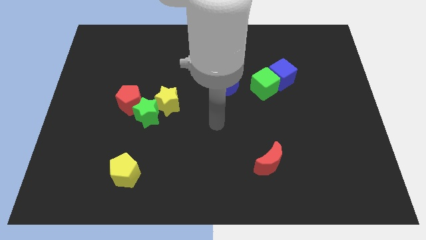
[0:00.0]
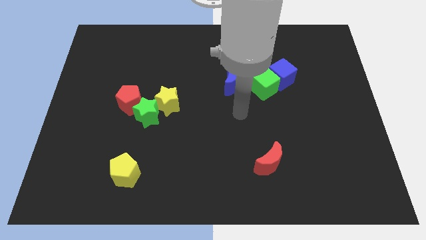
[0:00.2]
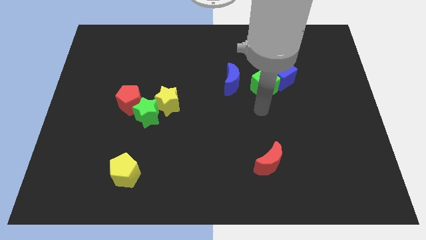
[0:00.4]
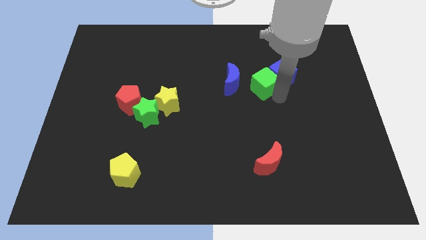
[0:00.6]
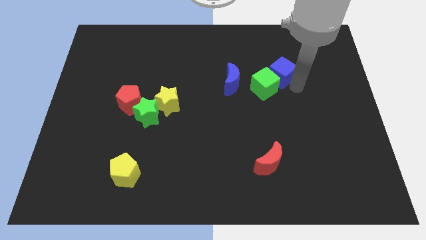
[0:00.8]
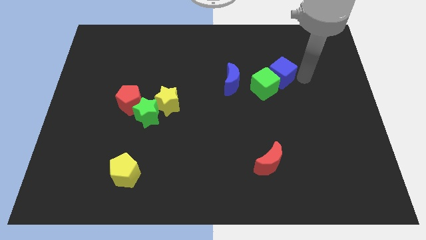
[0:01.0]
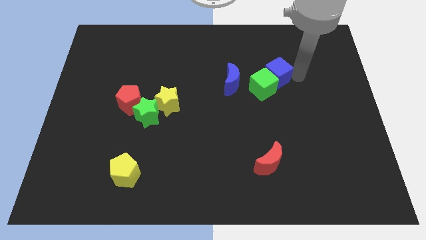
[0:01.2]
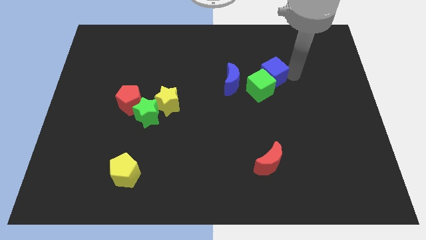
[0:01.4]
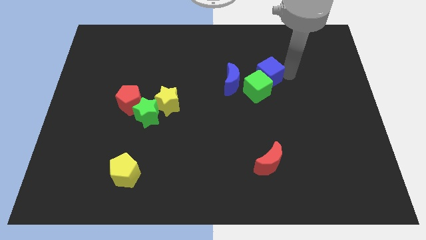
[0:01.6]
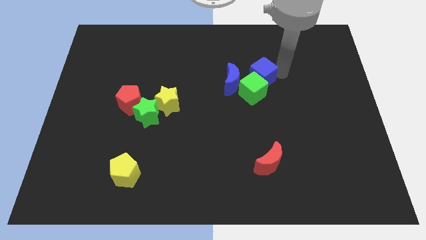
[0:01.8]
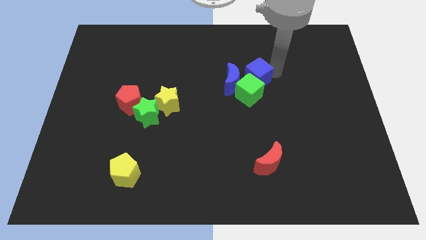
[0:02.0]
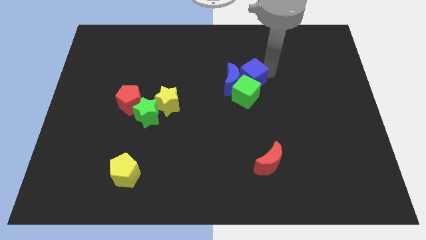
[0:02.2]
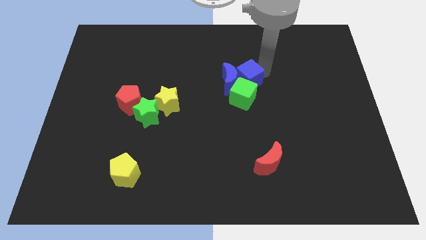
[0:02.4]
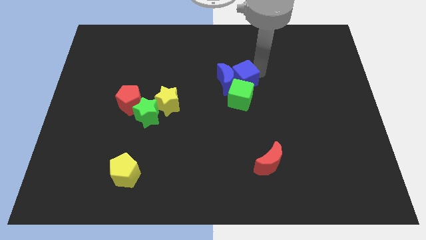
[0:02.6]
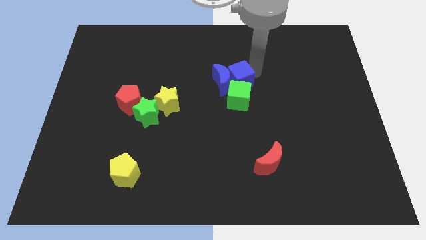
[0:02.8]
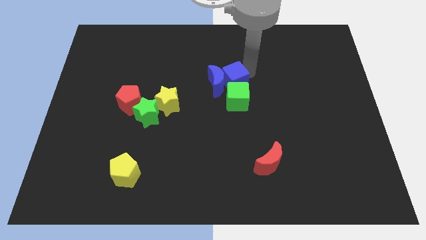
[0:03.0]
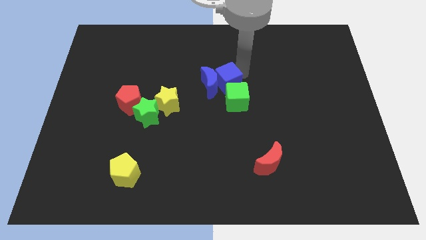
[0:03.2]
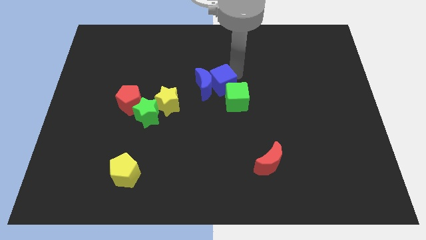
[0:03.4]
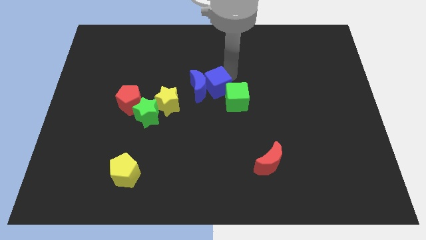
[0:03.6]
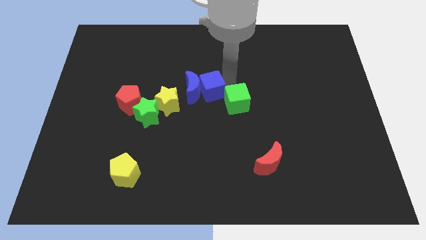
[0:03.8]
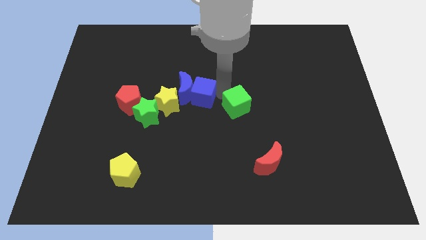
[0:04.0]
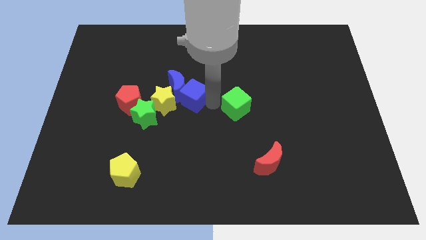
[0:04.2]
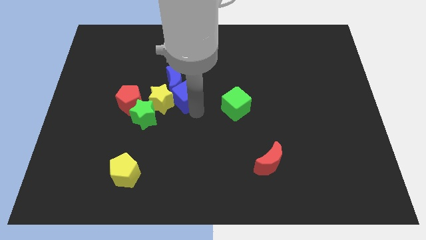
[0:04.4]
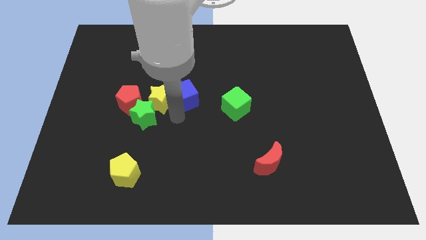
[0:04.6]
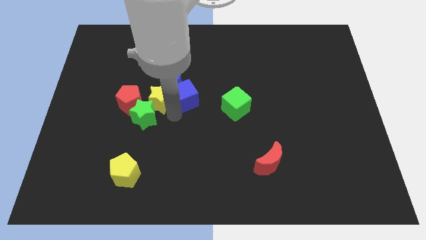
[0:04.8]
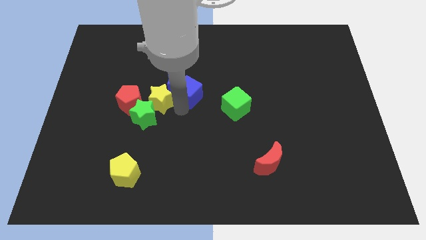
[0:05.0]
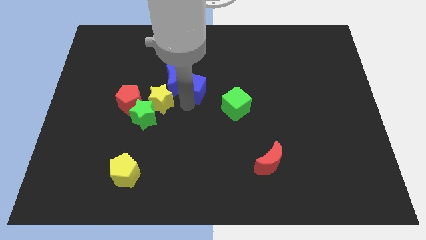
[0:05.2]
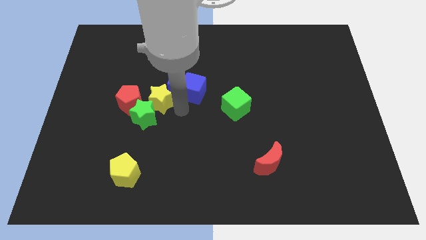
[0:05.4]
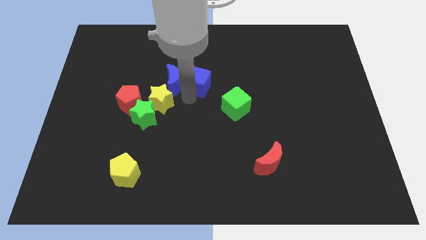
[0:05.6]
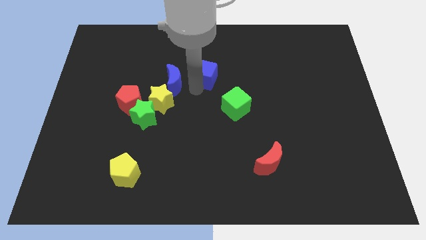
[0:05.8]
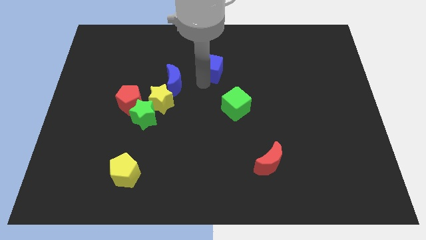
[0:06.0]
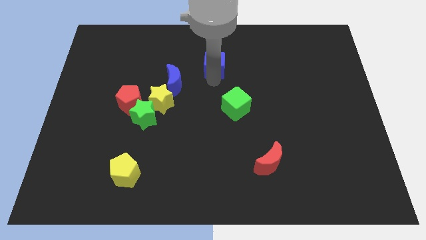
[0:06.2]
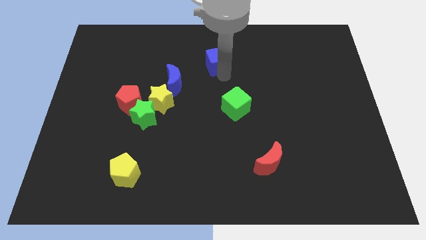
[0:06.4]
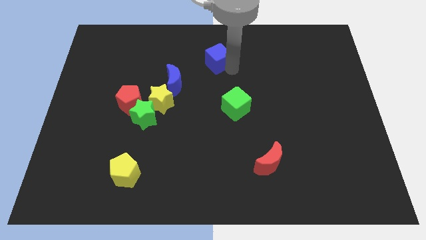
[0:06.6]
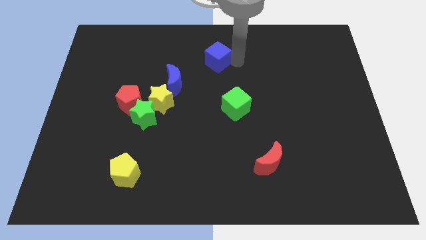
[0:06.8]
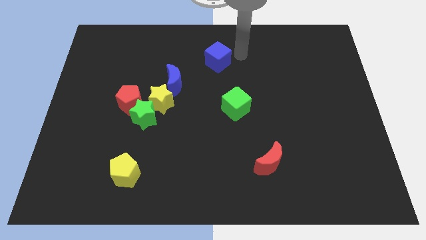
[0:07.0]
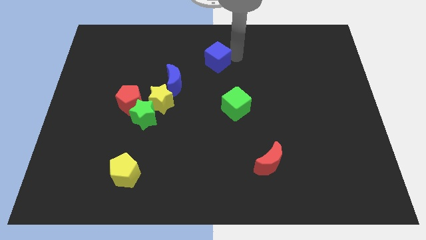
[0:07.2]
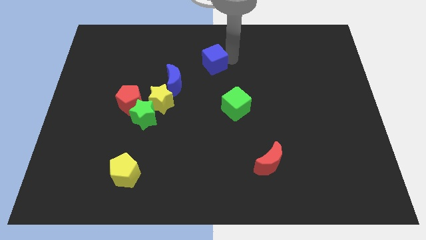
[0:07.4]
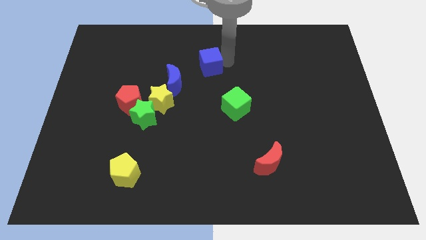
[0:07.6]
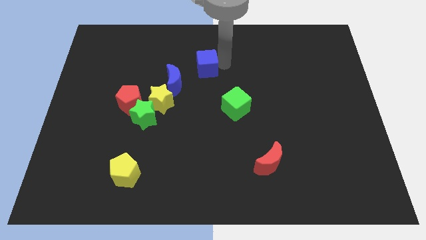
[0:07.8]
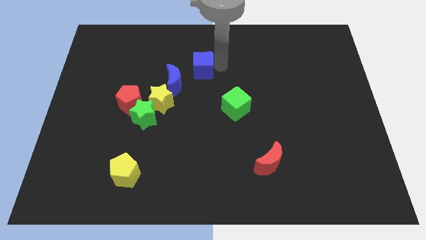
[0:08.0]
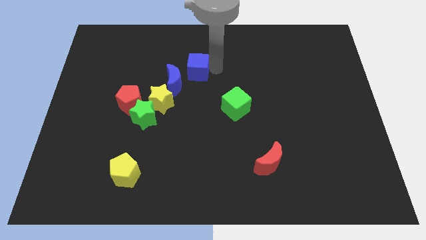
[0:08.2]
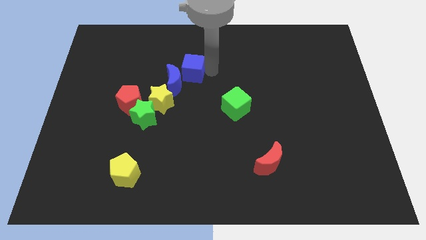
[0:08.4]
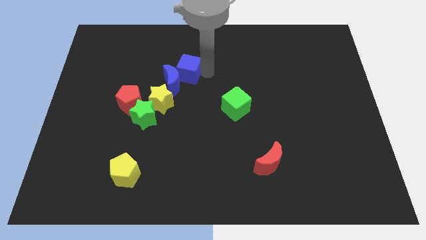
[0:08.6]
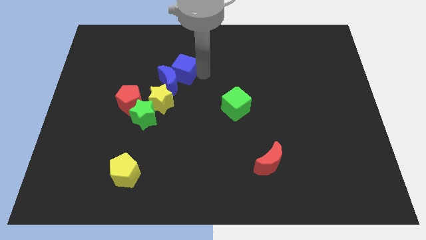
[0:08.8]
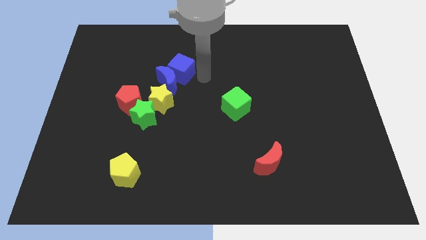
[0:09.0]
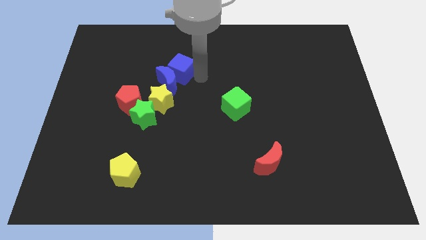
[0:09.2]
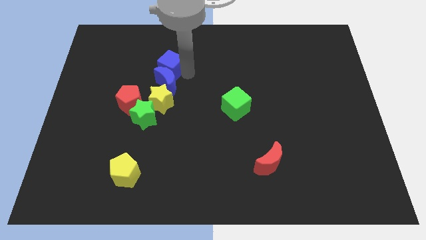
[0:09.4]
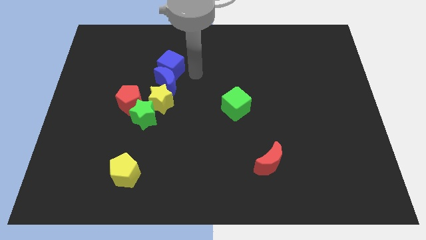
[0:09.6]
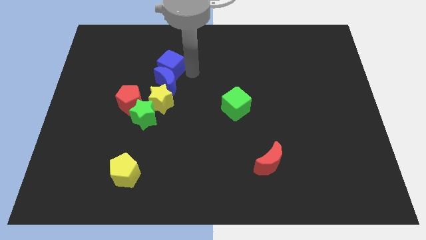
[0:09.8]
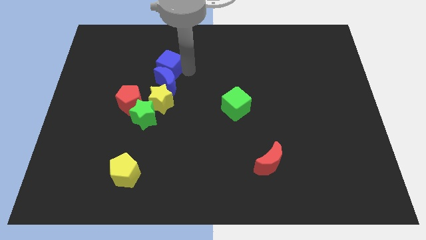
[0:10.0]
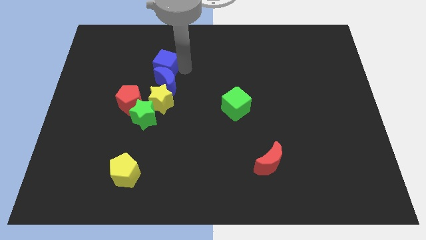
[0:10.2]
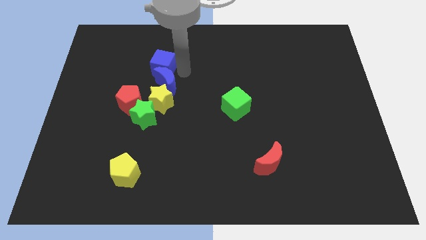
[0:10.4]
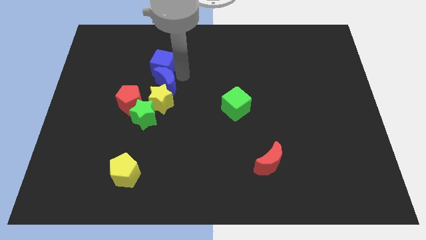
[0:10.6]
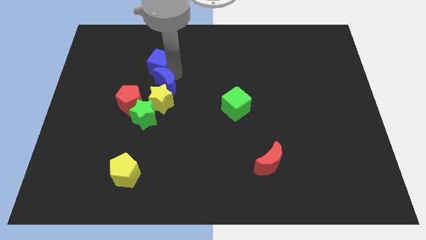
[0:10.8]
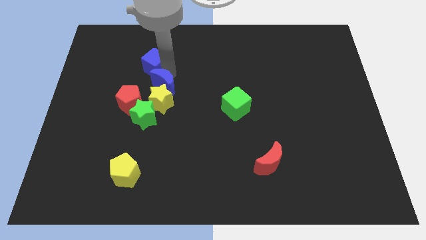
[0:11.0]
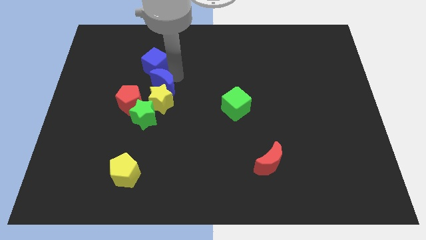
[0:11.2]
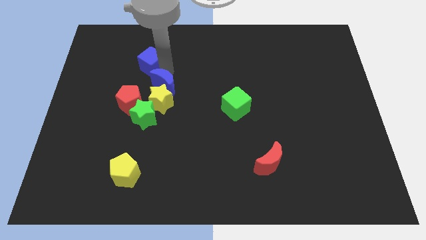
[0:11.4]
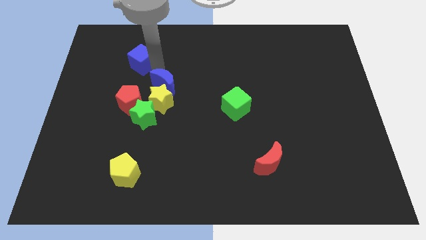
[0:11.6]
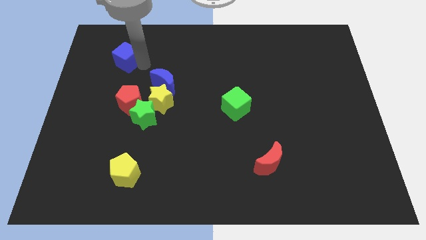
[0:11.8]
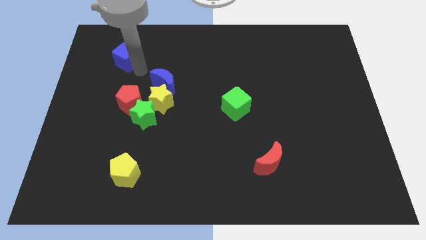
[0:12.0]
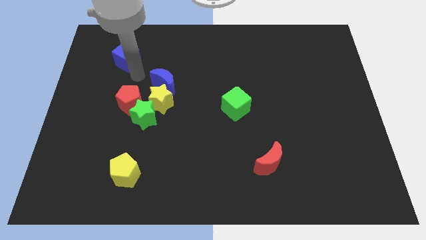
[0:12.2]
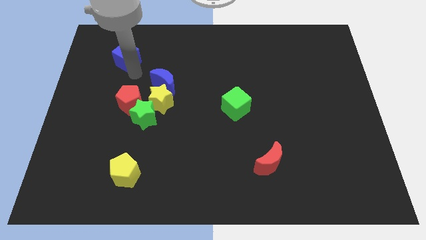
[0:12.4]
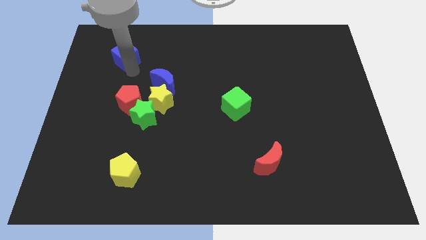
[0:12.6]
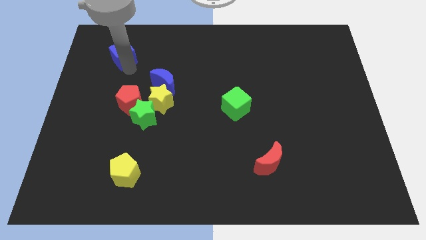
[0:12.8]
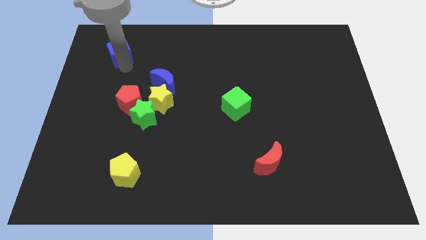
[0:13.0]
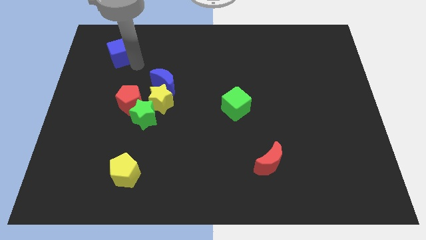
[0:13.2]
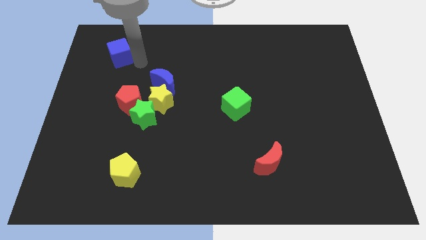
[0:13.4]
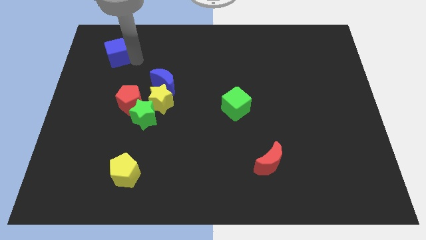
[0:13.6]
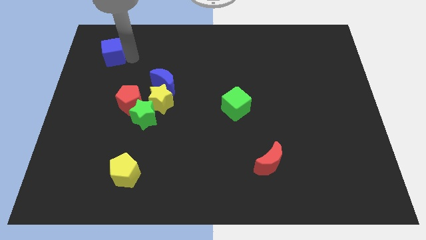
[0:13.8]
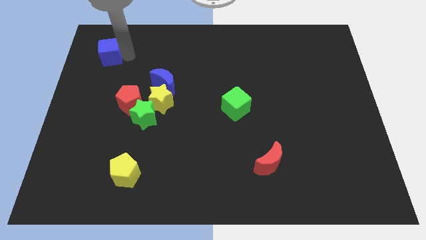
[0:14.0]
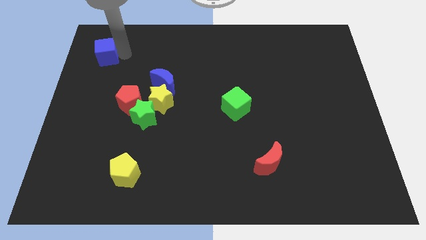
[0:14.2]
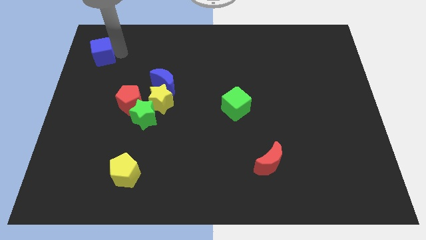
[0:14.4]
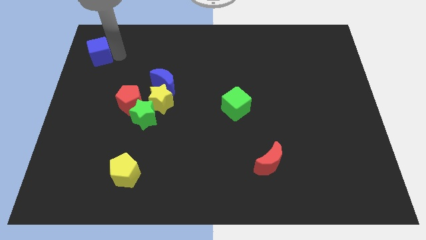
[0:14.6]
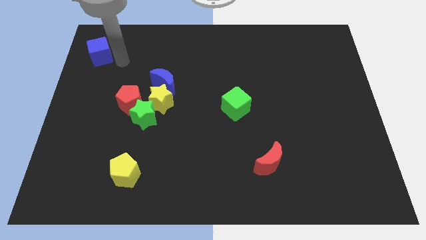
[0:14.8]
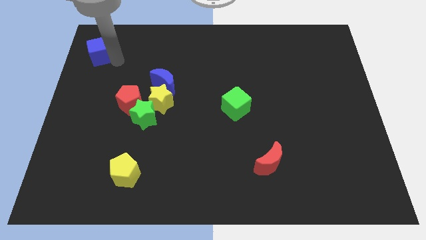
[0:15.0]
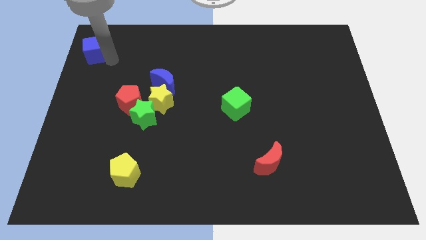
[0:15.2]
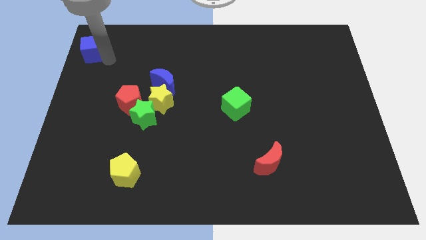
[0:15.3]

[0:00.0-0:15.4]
move the blue cube to the top left corner
